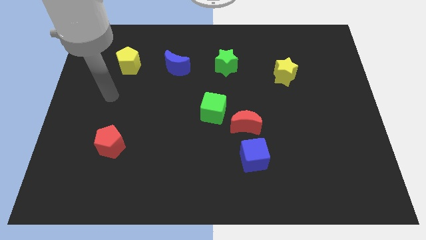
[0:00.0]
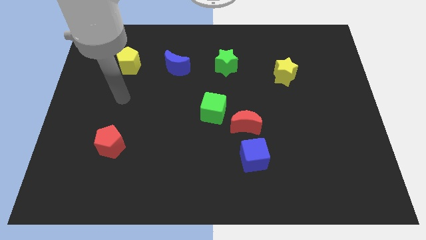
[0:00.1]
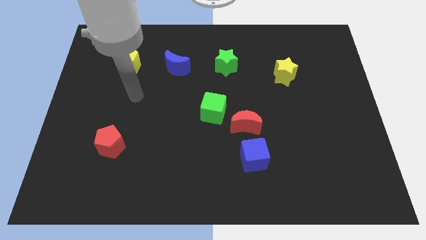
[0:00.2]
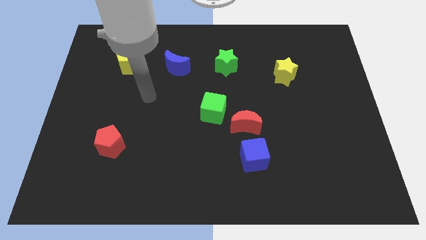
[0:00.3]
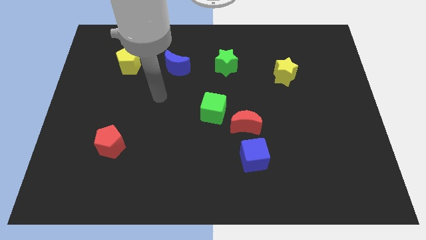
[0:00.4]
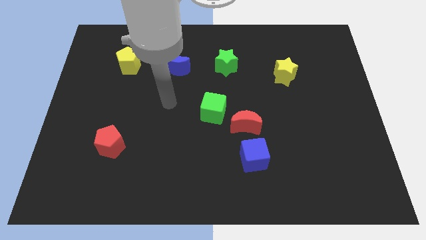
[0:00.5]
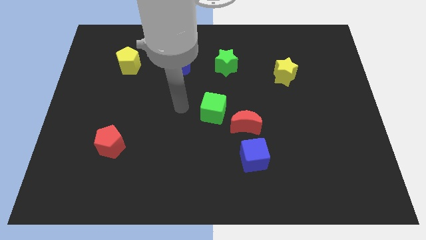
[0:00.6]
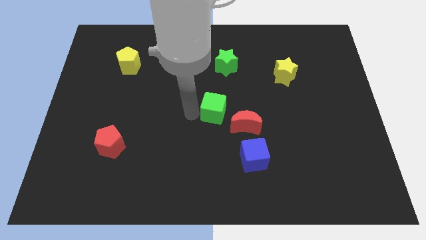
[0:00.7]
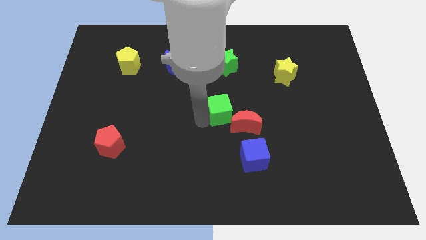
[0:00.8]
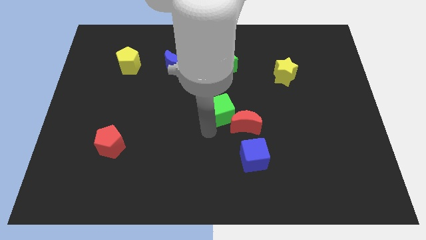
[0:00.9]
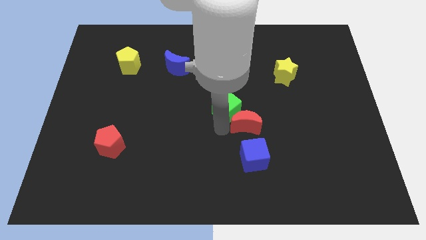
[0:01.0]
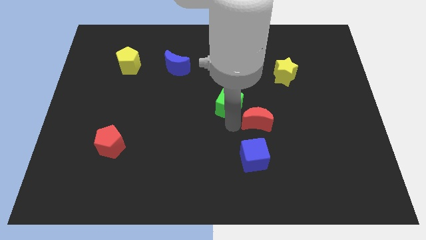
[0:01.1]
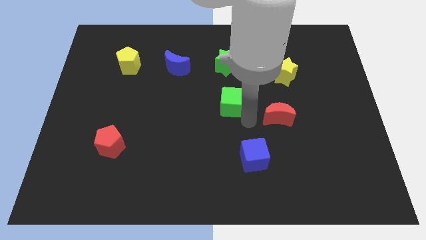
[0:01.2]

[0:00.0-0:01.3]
separate the green cube from the red moon

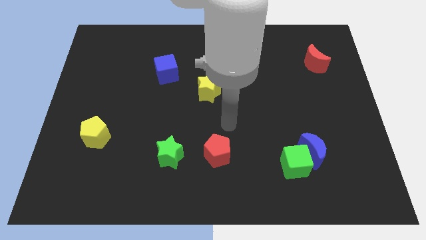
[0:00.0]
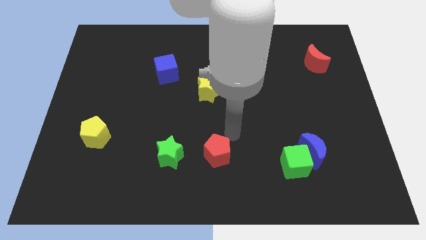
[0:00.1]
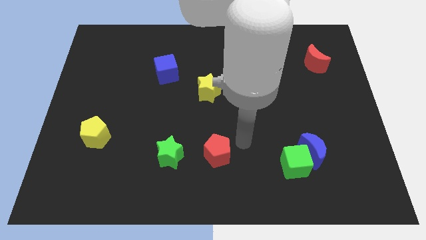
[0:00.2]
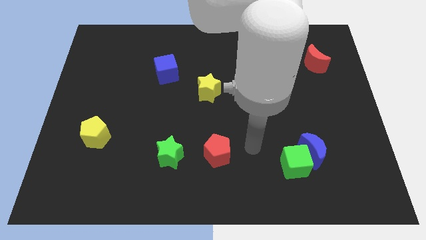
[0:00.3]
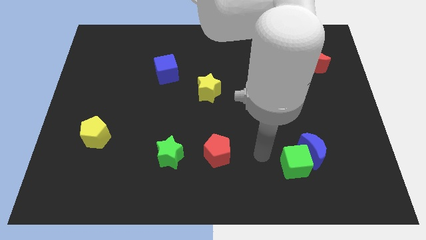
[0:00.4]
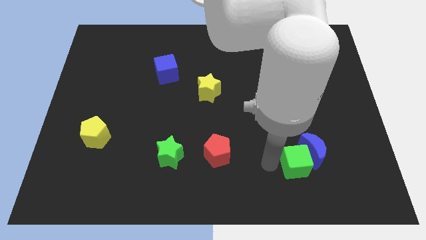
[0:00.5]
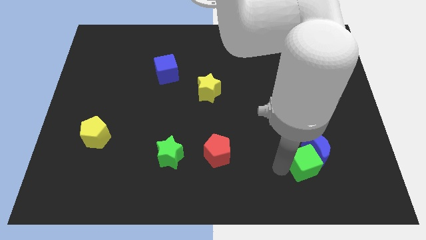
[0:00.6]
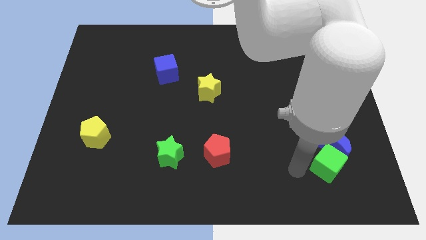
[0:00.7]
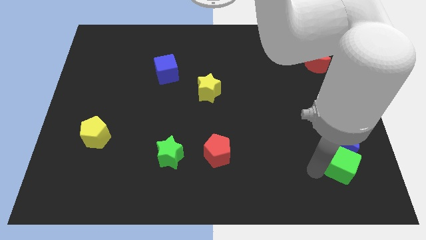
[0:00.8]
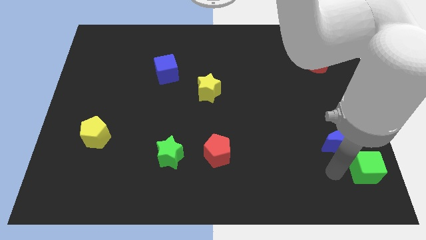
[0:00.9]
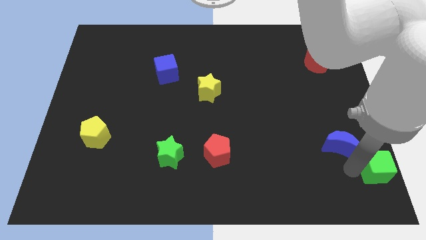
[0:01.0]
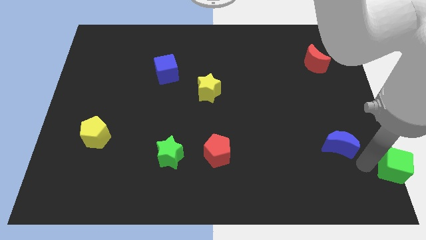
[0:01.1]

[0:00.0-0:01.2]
move the blue moon away from the green cube

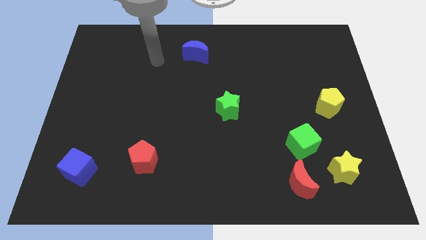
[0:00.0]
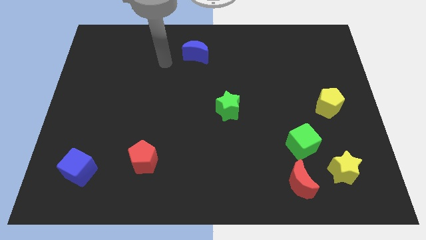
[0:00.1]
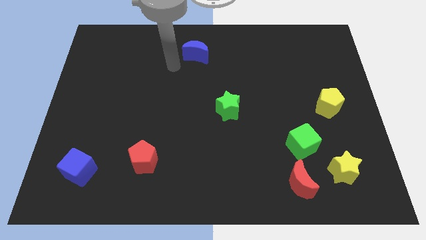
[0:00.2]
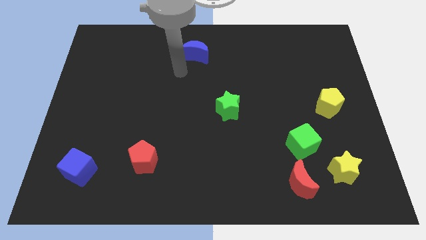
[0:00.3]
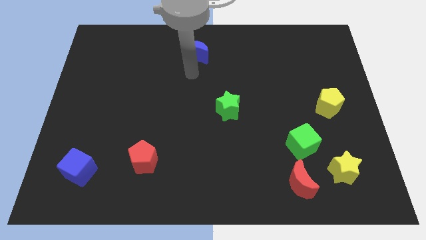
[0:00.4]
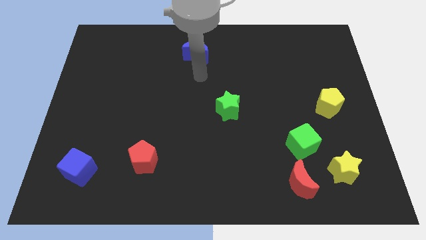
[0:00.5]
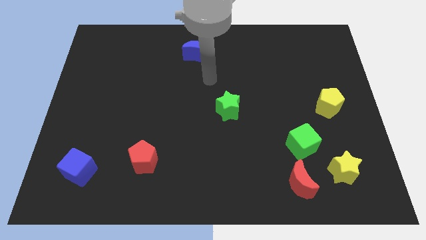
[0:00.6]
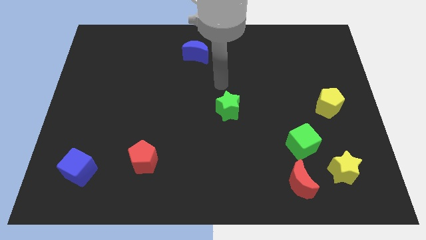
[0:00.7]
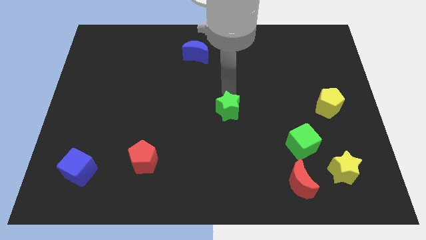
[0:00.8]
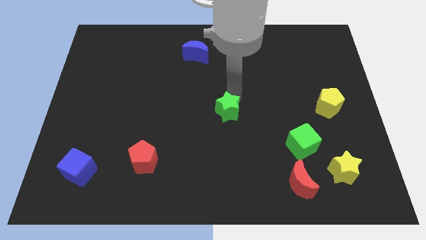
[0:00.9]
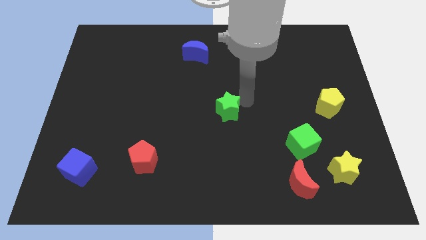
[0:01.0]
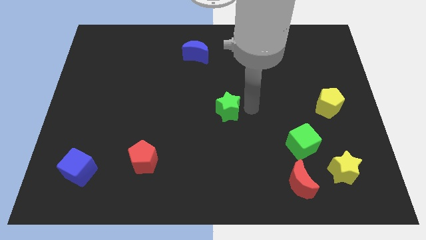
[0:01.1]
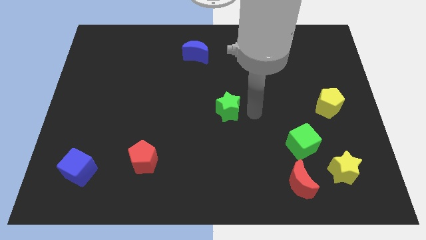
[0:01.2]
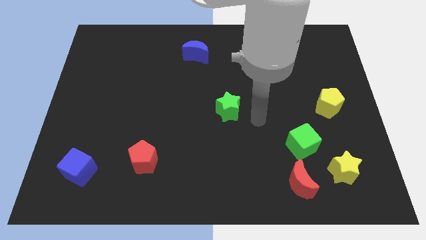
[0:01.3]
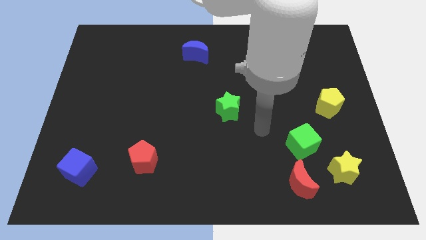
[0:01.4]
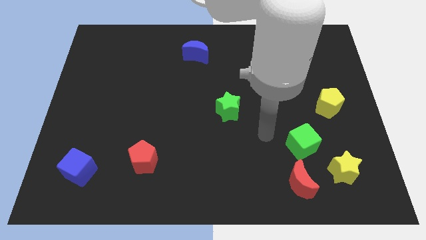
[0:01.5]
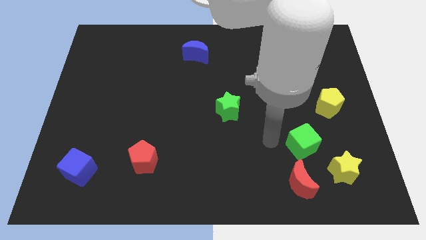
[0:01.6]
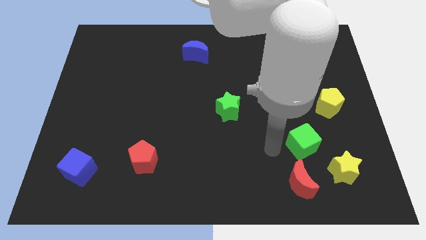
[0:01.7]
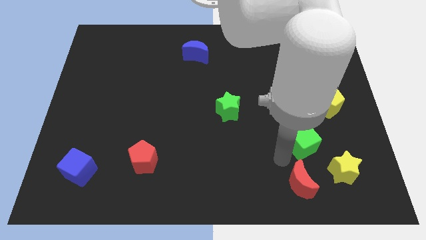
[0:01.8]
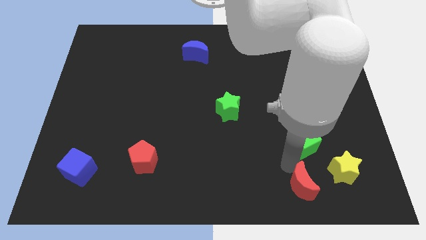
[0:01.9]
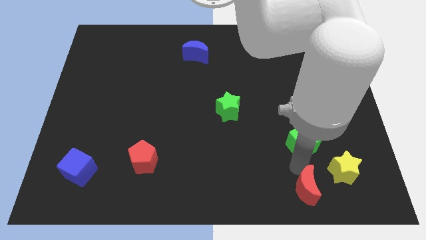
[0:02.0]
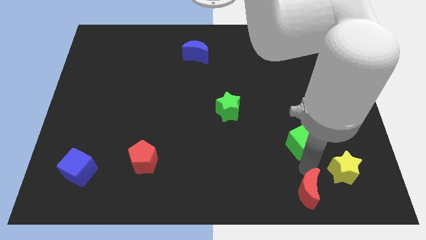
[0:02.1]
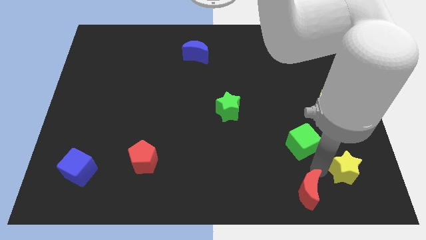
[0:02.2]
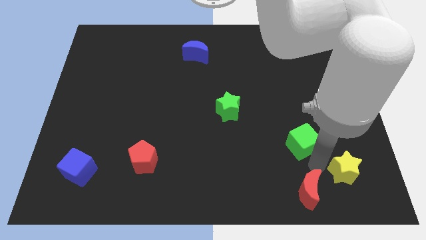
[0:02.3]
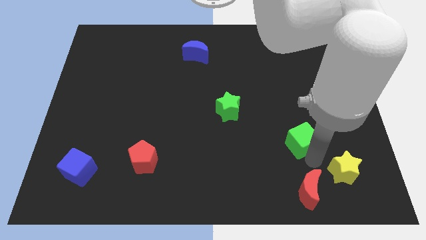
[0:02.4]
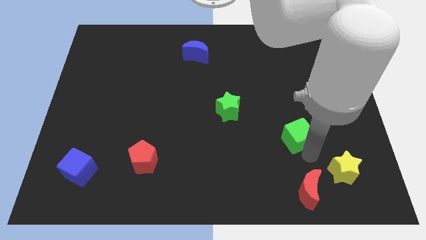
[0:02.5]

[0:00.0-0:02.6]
move the green cube away from the red moon and yellow star

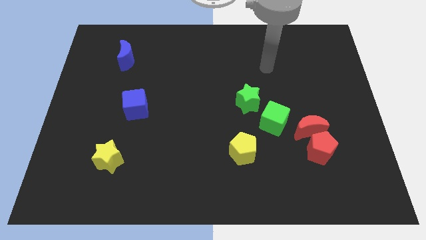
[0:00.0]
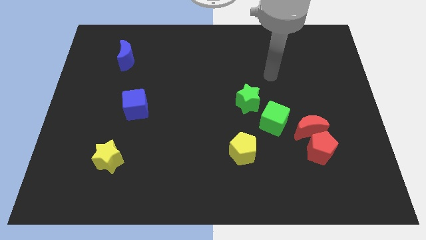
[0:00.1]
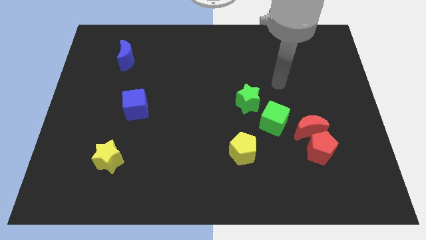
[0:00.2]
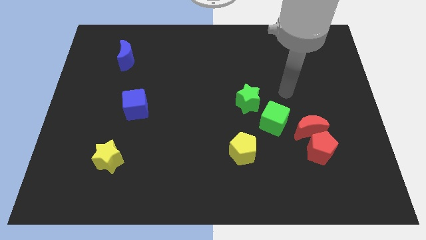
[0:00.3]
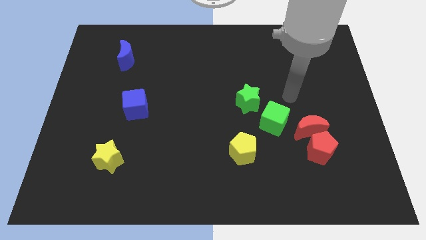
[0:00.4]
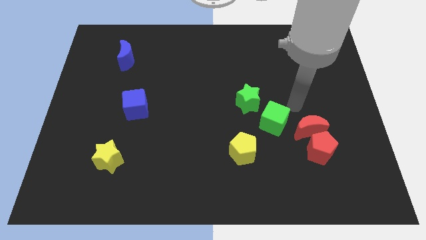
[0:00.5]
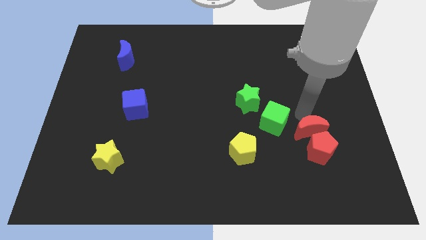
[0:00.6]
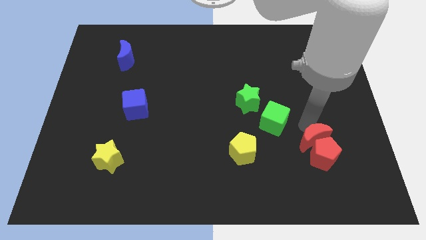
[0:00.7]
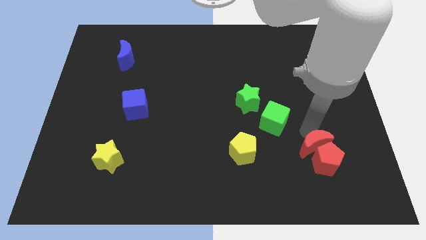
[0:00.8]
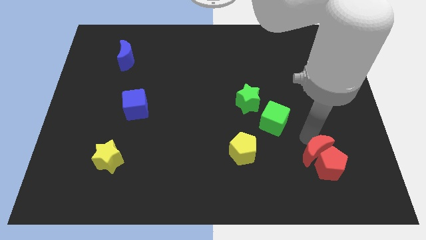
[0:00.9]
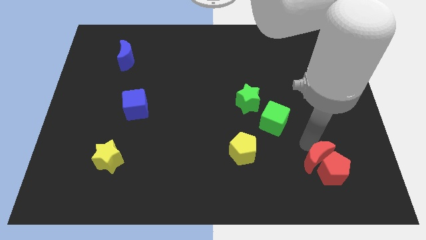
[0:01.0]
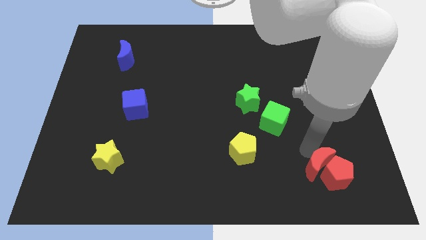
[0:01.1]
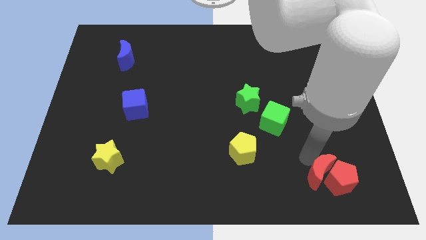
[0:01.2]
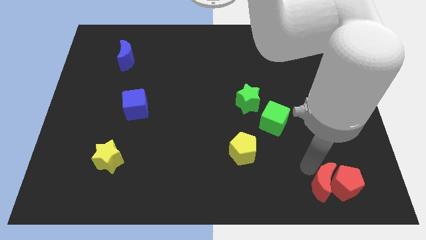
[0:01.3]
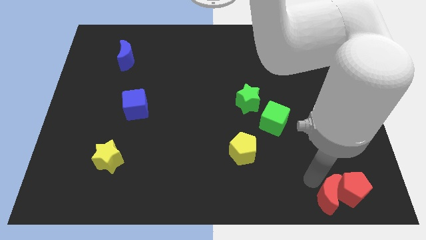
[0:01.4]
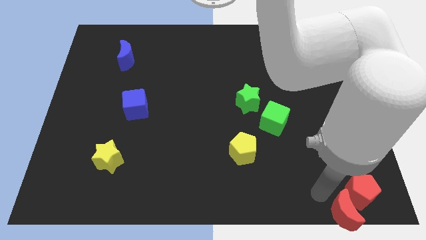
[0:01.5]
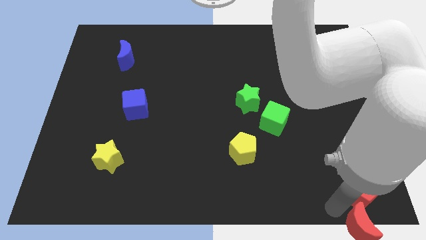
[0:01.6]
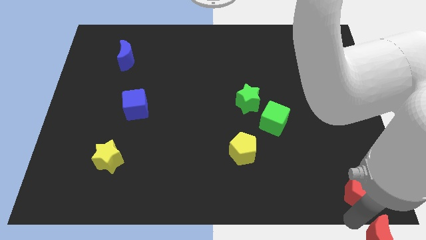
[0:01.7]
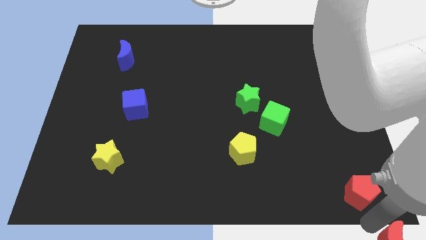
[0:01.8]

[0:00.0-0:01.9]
move the red pentagon away from the red moon

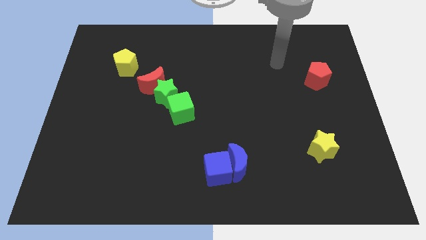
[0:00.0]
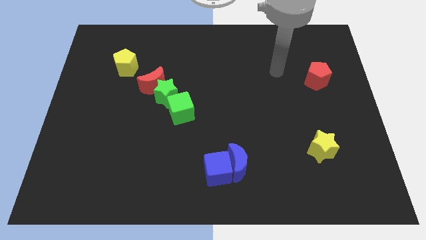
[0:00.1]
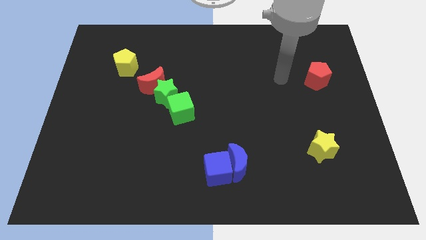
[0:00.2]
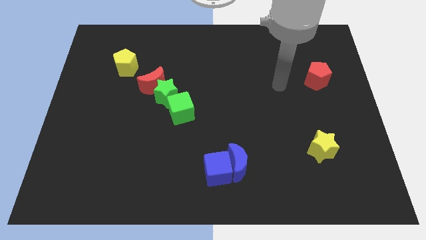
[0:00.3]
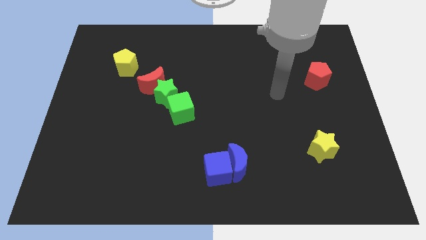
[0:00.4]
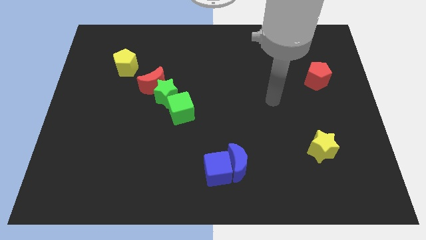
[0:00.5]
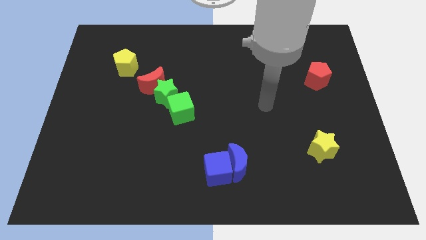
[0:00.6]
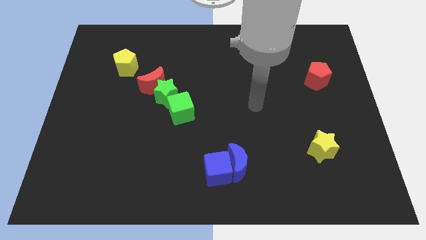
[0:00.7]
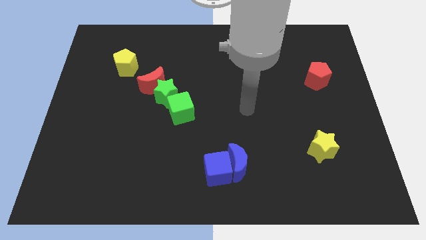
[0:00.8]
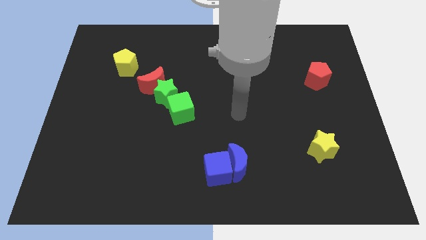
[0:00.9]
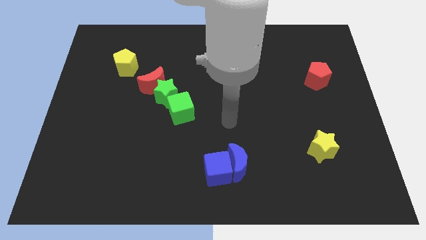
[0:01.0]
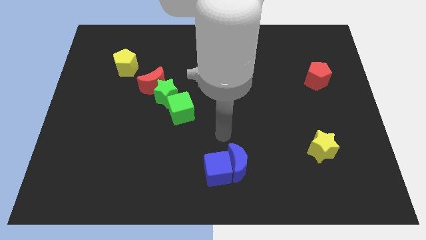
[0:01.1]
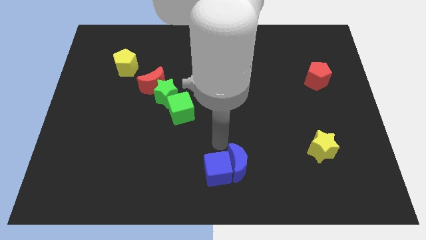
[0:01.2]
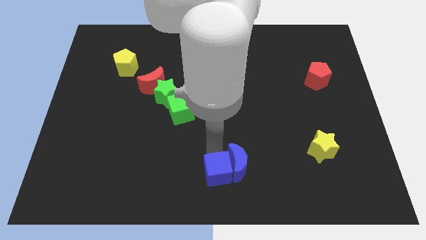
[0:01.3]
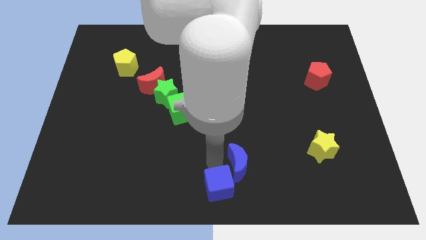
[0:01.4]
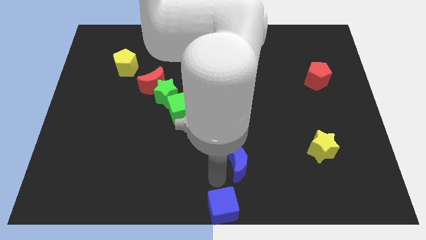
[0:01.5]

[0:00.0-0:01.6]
separate the blue moon from the blue cube

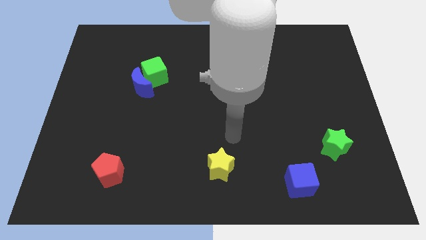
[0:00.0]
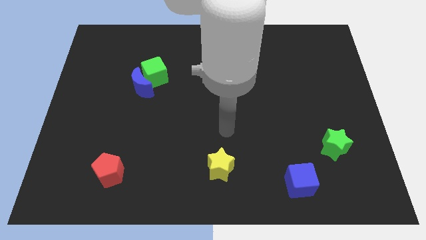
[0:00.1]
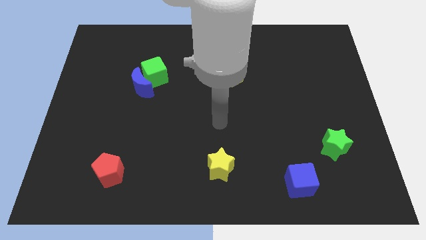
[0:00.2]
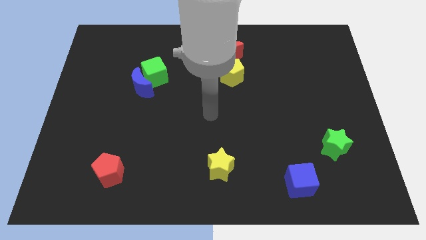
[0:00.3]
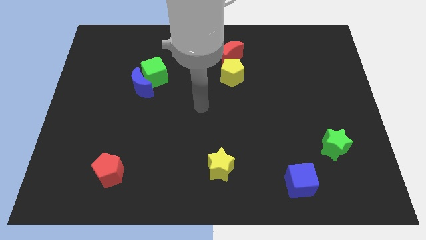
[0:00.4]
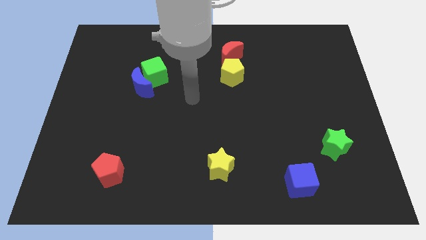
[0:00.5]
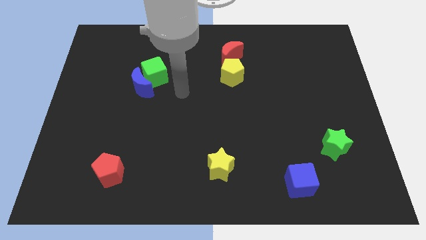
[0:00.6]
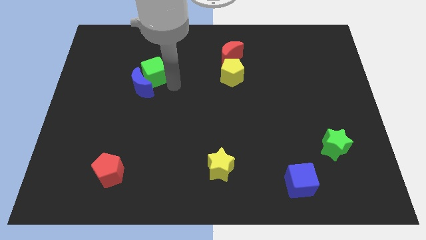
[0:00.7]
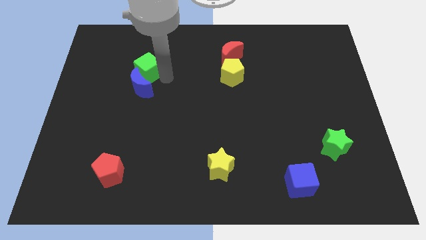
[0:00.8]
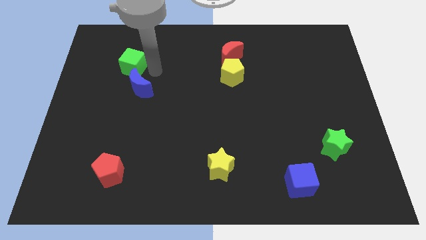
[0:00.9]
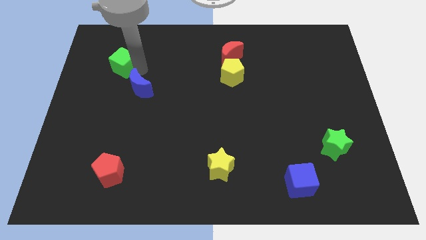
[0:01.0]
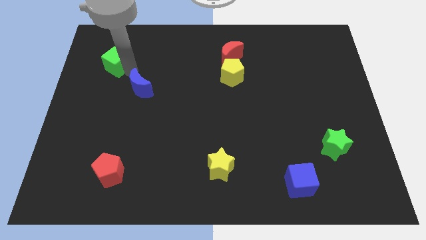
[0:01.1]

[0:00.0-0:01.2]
separate the blue moon from the green cube
